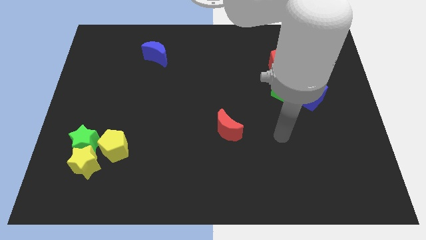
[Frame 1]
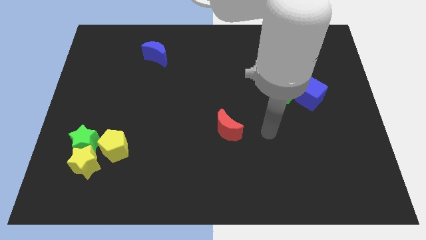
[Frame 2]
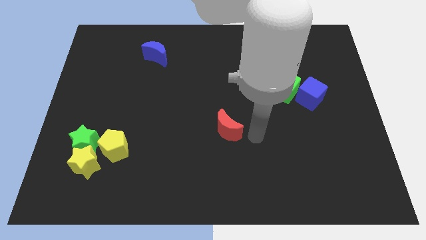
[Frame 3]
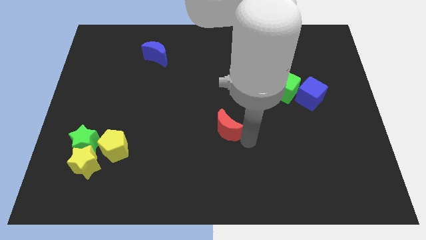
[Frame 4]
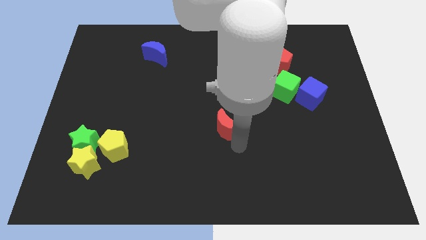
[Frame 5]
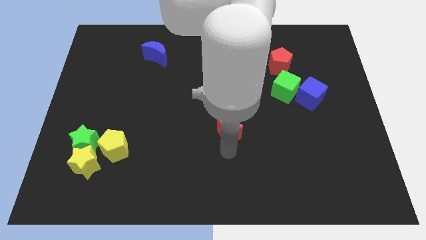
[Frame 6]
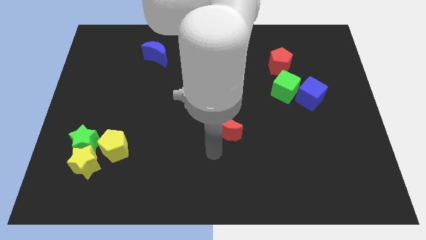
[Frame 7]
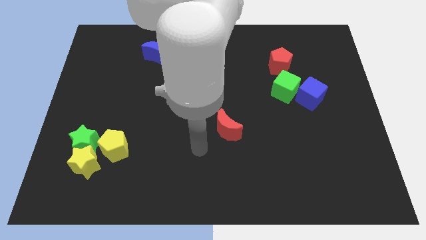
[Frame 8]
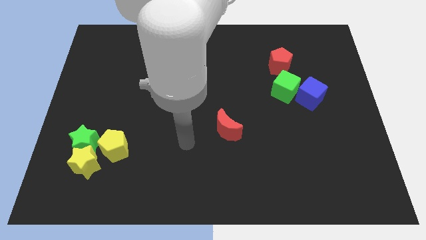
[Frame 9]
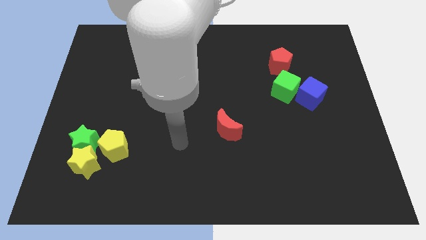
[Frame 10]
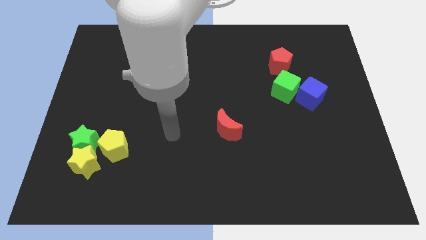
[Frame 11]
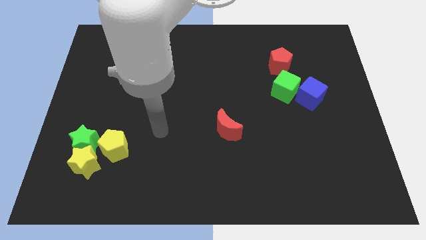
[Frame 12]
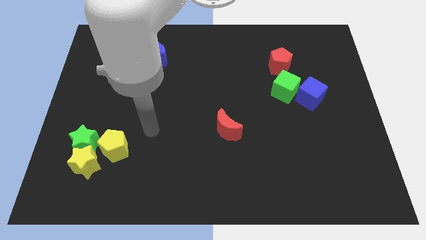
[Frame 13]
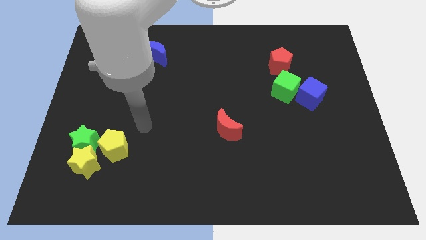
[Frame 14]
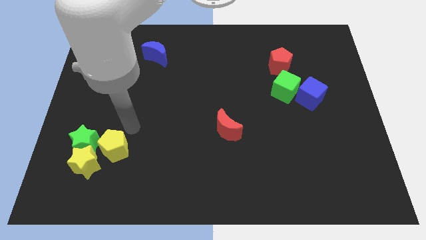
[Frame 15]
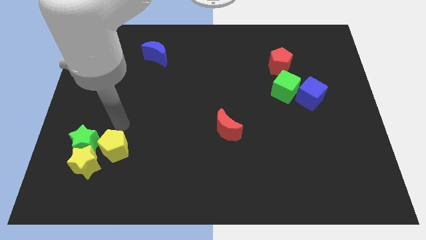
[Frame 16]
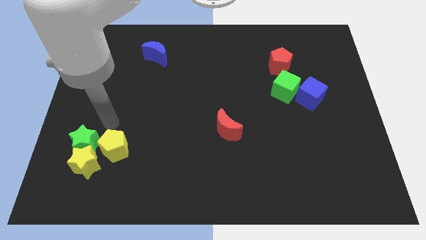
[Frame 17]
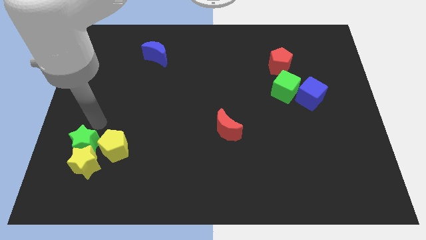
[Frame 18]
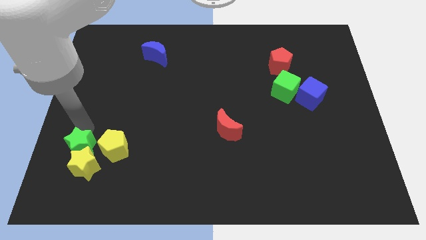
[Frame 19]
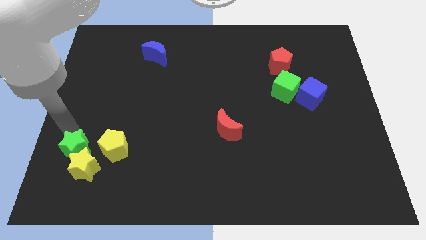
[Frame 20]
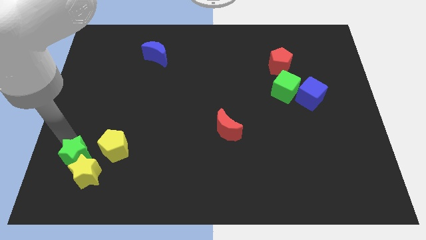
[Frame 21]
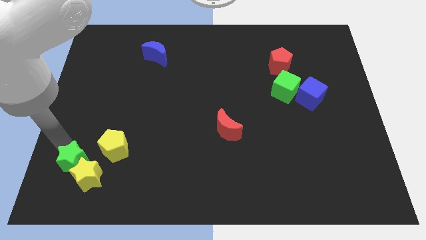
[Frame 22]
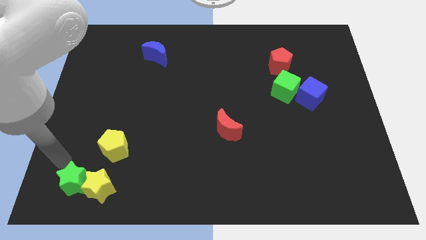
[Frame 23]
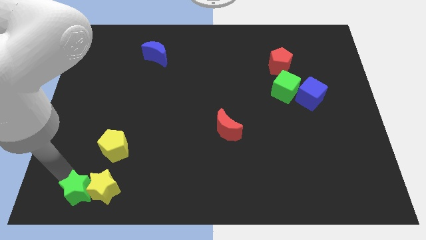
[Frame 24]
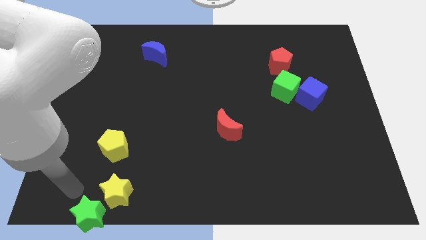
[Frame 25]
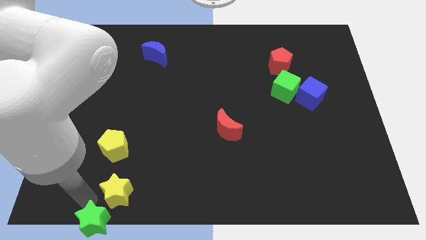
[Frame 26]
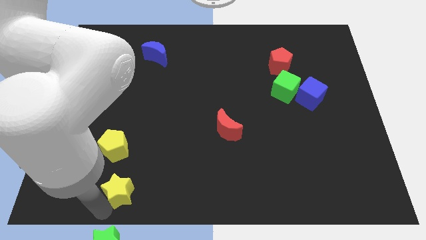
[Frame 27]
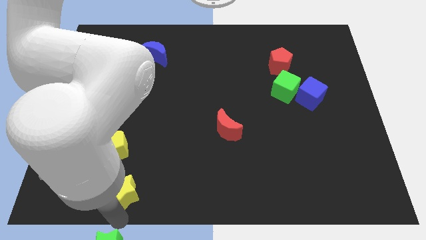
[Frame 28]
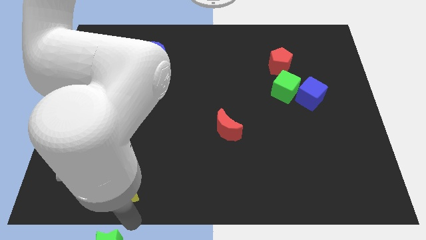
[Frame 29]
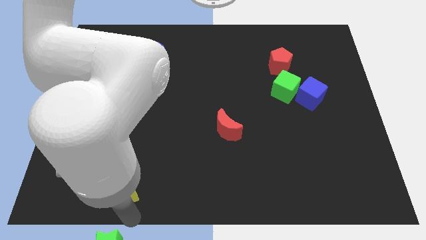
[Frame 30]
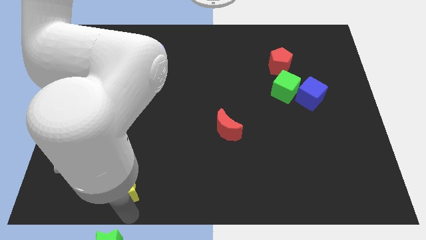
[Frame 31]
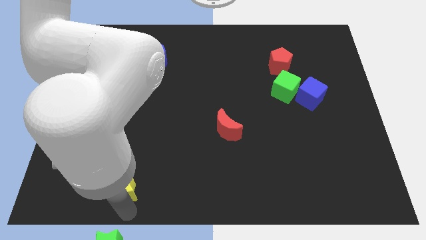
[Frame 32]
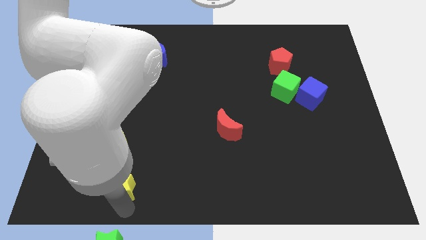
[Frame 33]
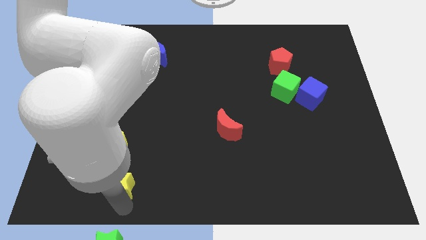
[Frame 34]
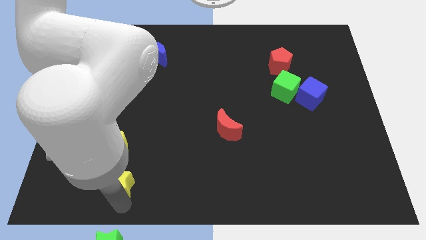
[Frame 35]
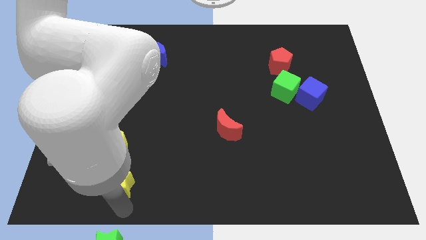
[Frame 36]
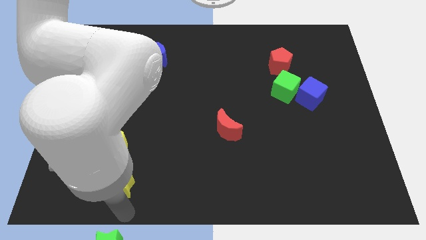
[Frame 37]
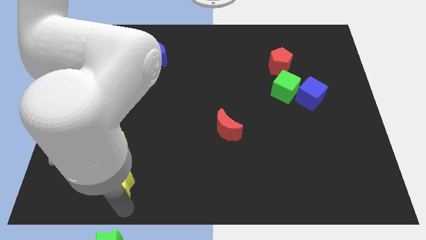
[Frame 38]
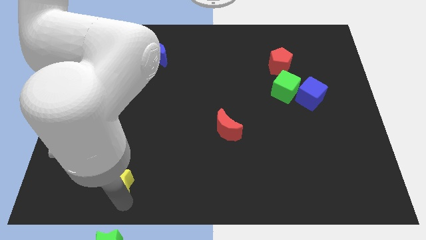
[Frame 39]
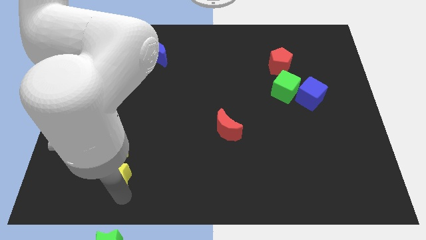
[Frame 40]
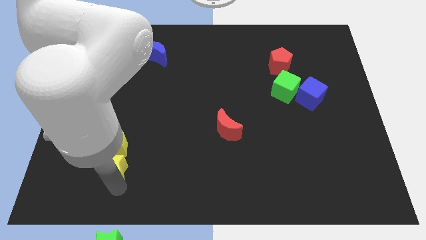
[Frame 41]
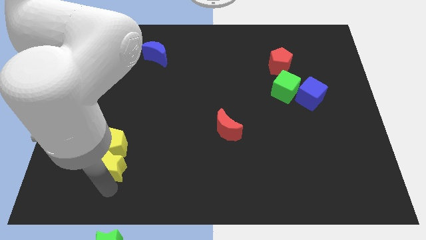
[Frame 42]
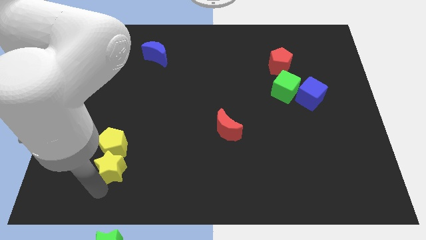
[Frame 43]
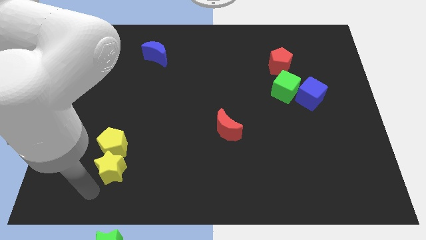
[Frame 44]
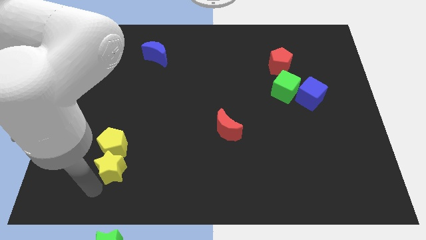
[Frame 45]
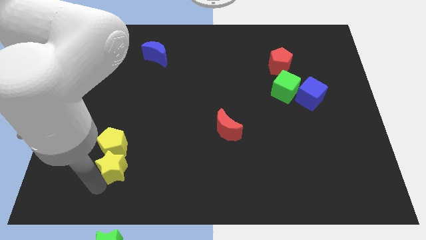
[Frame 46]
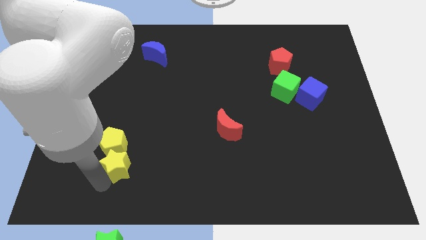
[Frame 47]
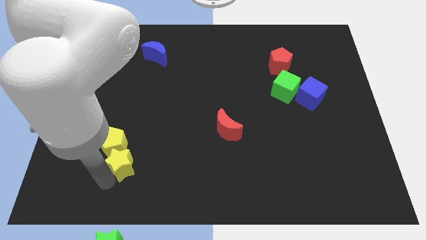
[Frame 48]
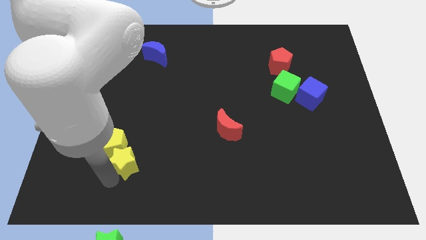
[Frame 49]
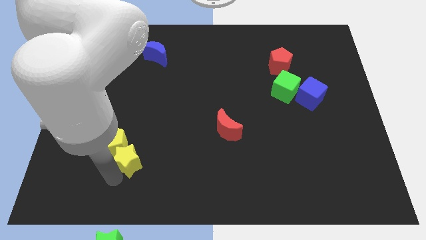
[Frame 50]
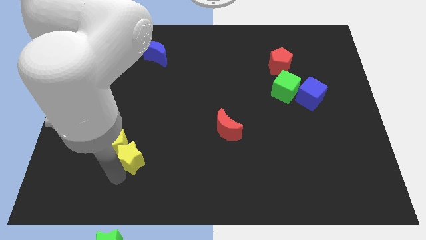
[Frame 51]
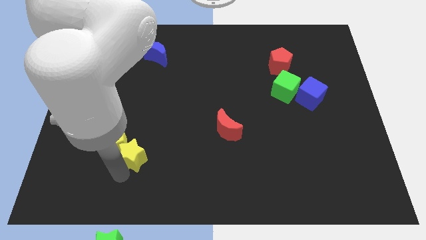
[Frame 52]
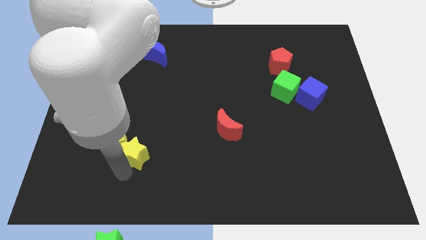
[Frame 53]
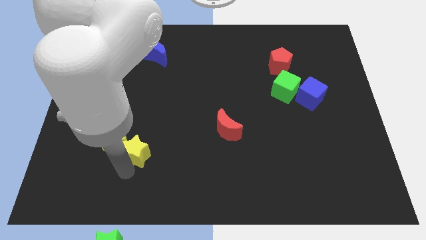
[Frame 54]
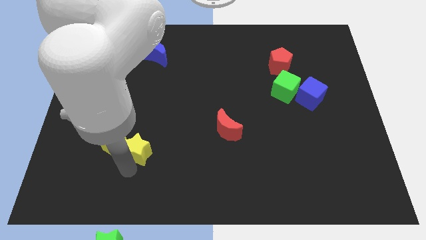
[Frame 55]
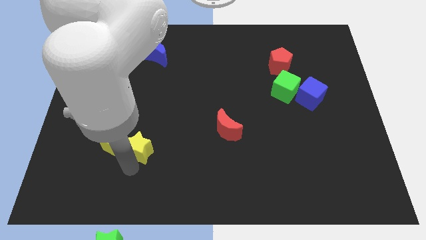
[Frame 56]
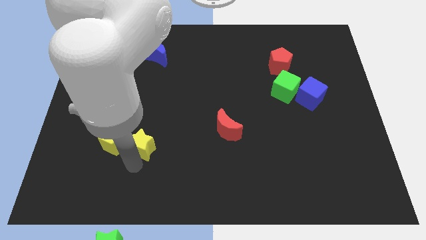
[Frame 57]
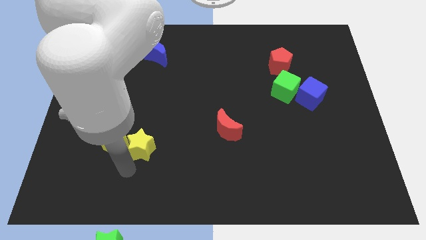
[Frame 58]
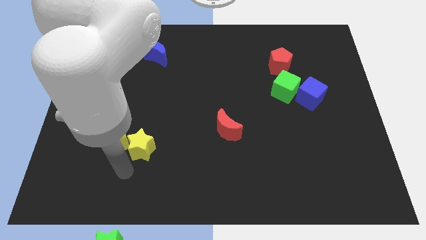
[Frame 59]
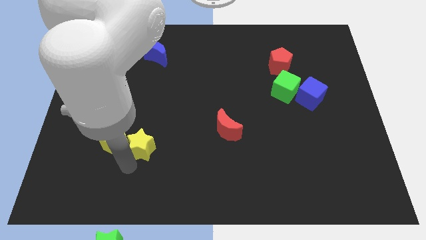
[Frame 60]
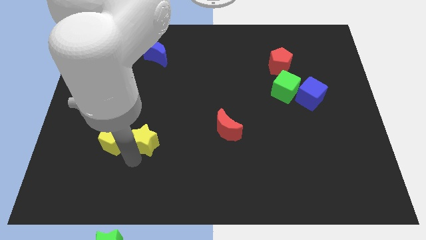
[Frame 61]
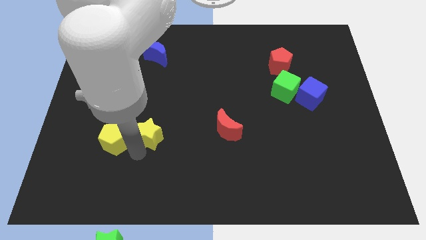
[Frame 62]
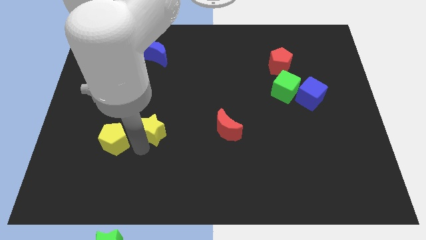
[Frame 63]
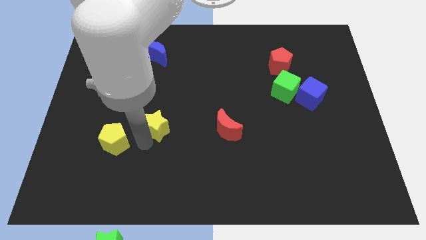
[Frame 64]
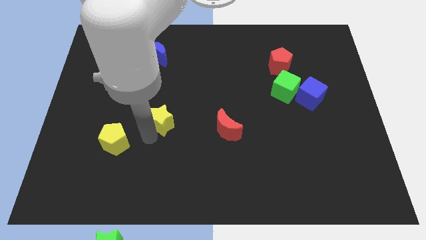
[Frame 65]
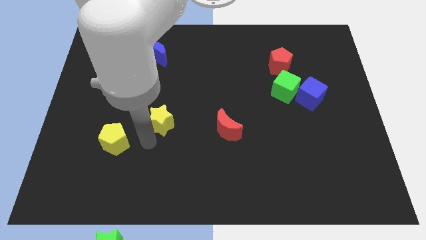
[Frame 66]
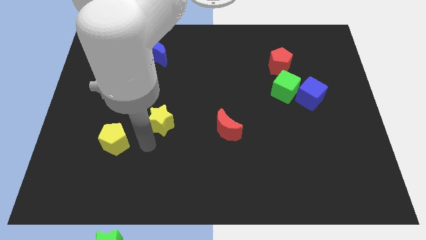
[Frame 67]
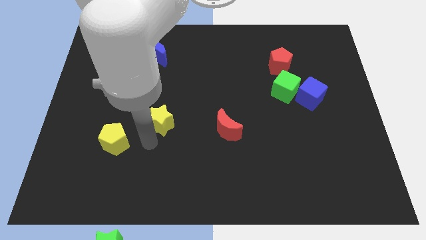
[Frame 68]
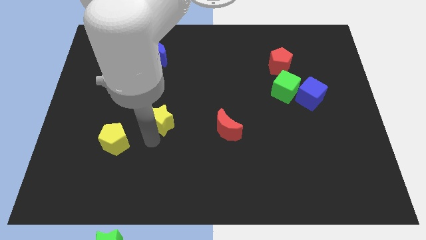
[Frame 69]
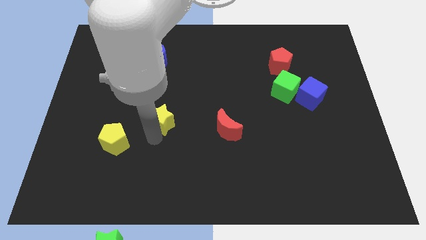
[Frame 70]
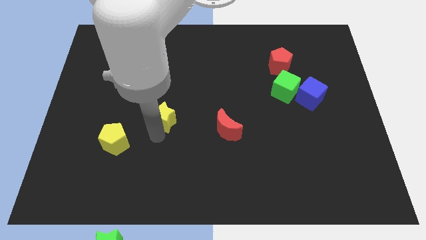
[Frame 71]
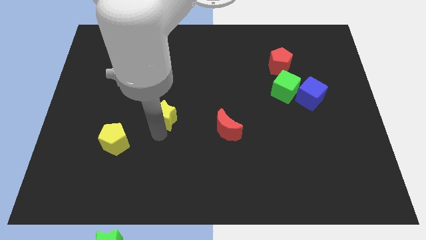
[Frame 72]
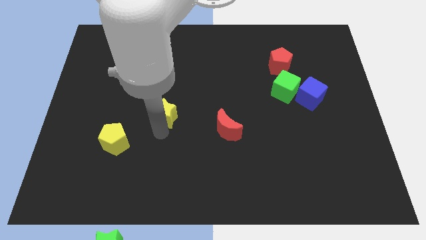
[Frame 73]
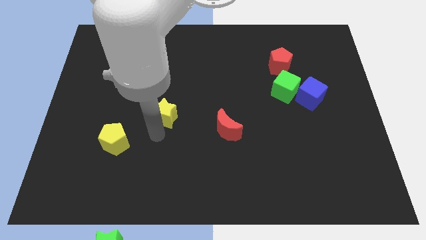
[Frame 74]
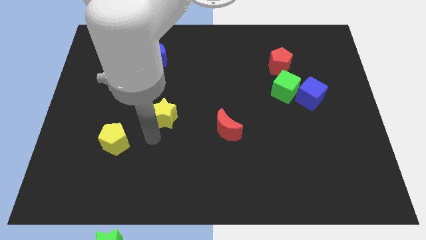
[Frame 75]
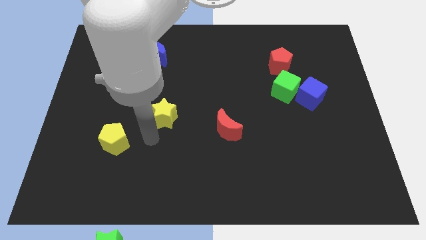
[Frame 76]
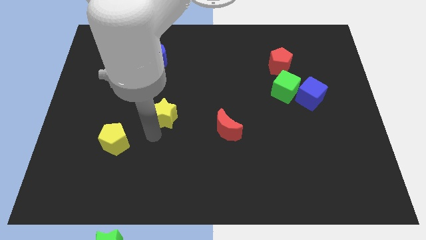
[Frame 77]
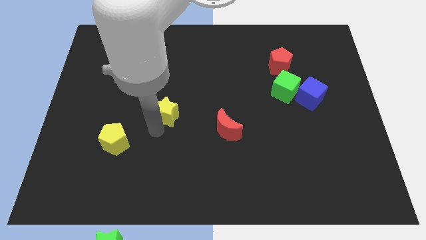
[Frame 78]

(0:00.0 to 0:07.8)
slide the yellow star diagonally upwards and to the right

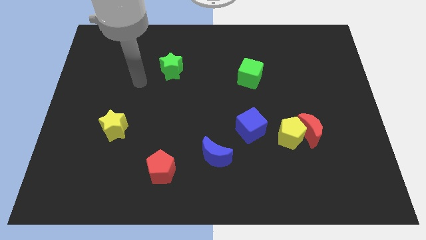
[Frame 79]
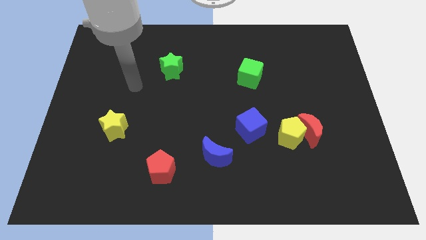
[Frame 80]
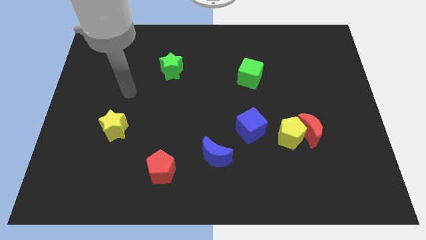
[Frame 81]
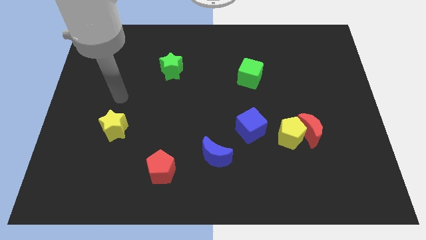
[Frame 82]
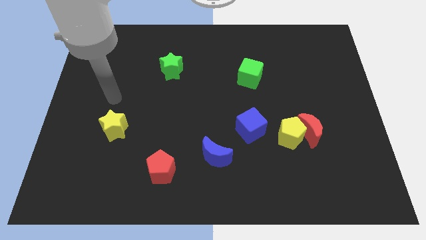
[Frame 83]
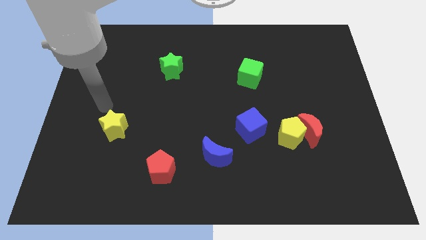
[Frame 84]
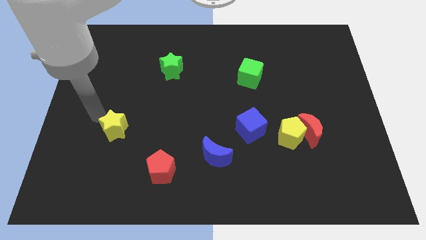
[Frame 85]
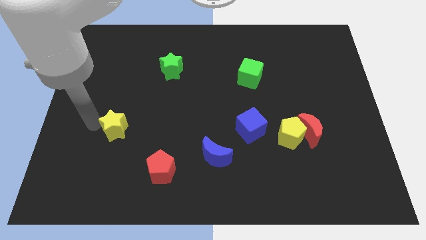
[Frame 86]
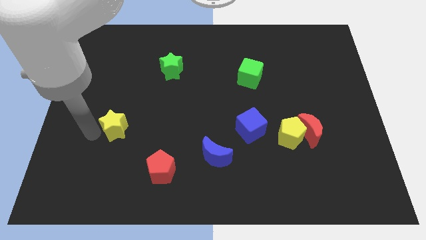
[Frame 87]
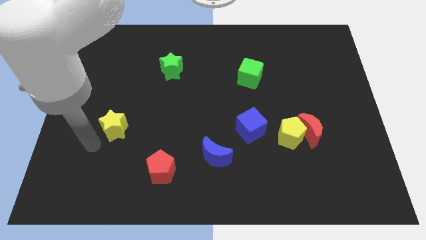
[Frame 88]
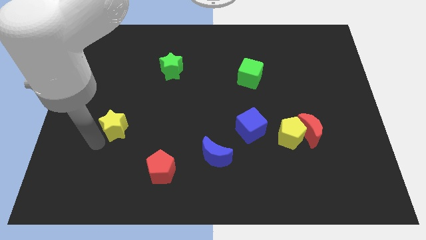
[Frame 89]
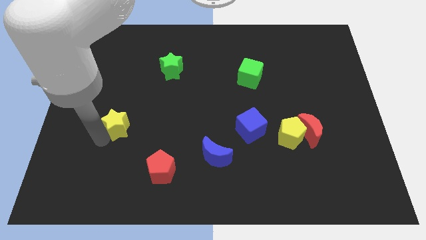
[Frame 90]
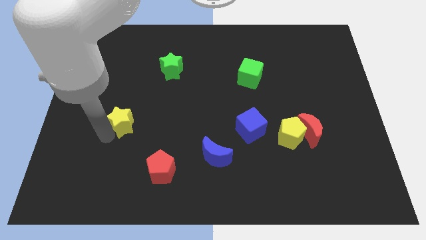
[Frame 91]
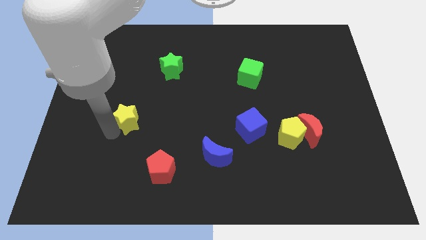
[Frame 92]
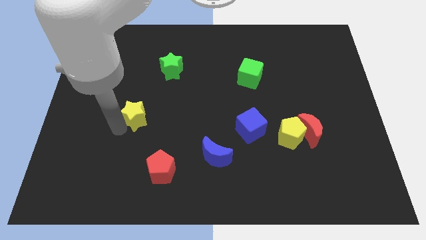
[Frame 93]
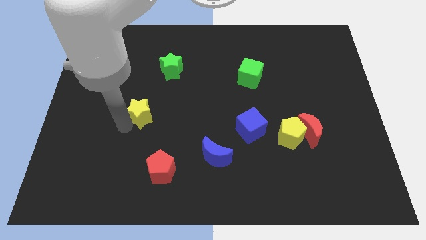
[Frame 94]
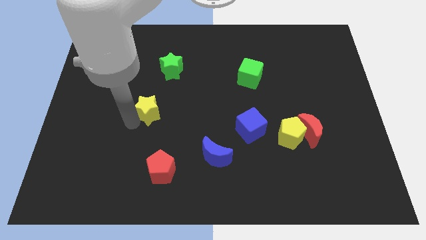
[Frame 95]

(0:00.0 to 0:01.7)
push the yellow star somewhat up and to the right diagonally
